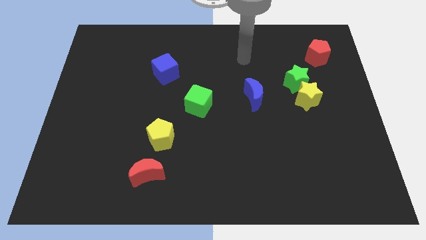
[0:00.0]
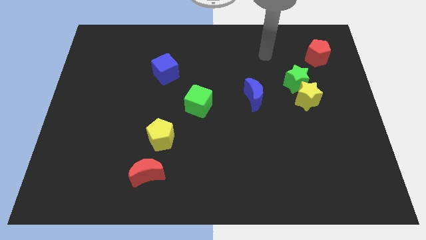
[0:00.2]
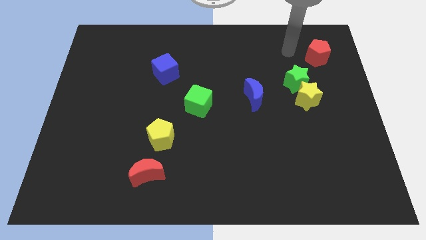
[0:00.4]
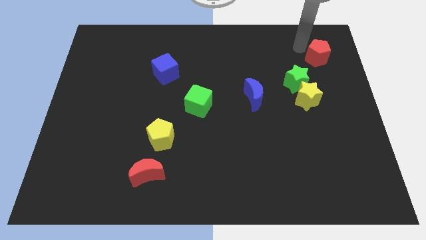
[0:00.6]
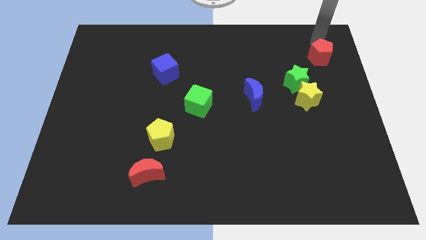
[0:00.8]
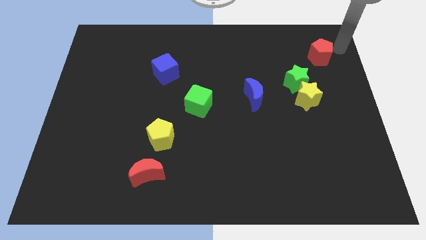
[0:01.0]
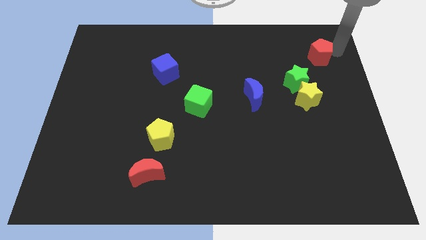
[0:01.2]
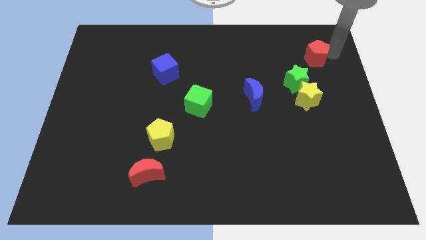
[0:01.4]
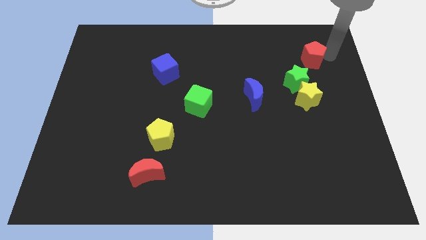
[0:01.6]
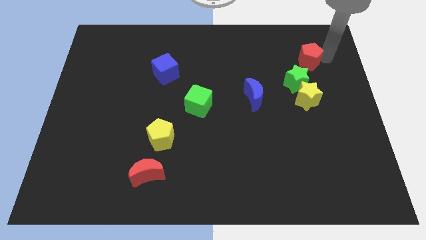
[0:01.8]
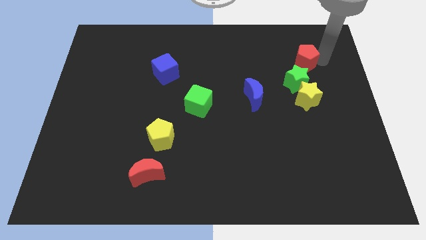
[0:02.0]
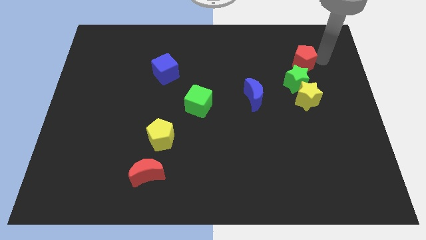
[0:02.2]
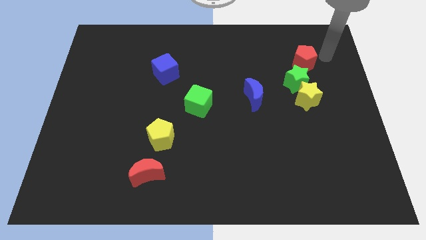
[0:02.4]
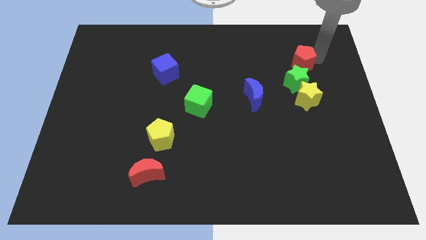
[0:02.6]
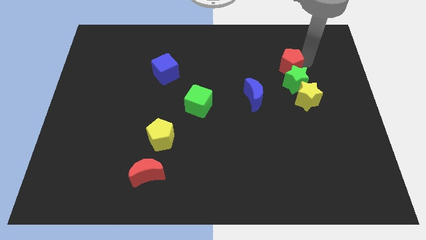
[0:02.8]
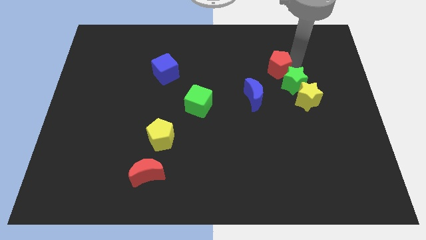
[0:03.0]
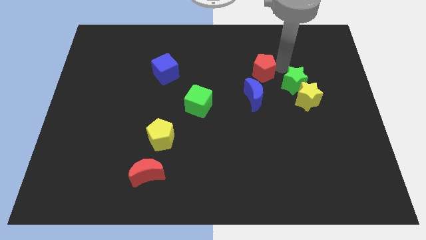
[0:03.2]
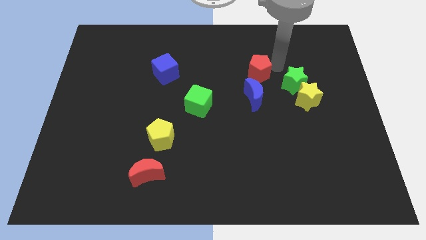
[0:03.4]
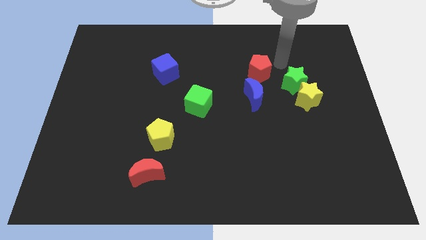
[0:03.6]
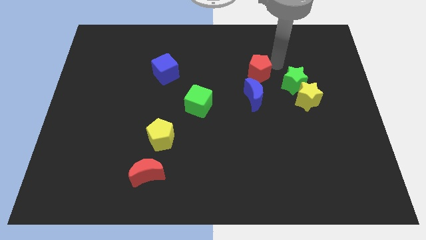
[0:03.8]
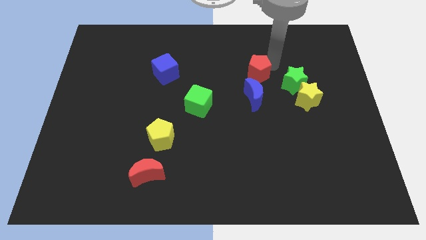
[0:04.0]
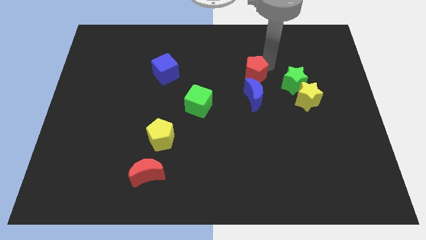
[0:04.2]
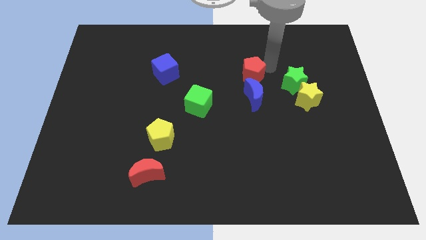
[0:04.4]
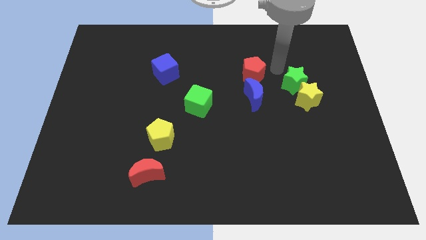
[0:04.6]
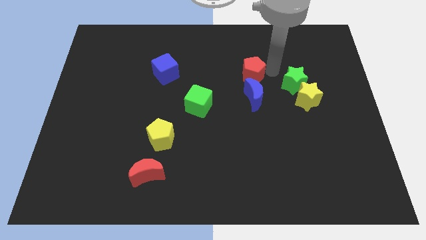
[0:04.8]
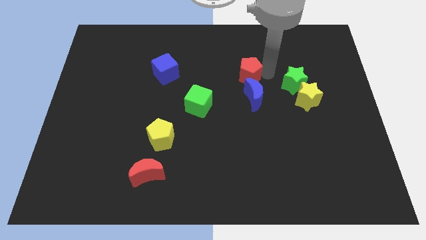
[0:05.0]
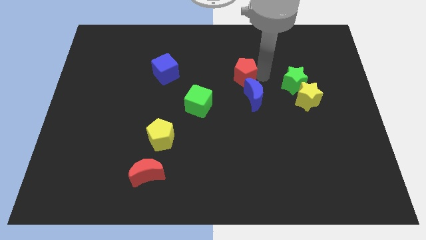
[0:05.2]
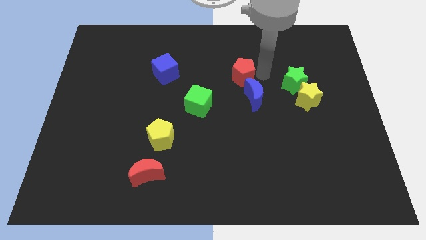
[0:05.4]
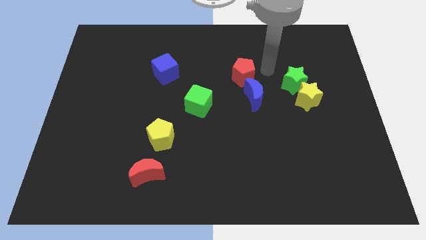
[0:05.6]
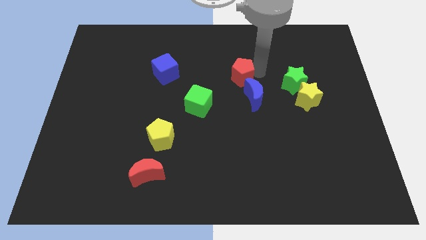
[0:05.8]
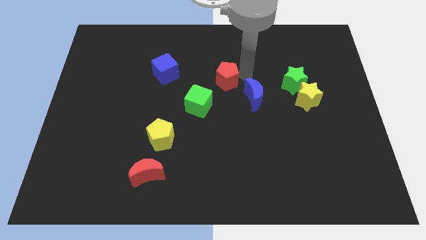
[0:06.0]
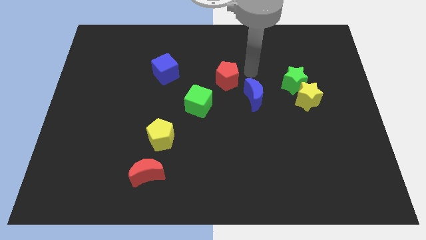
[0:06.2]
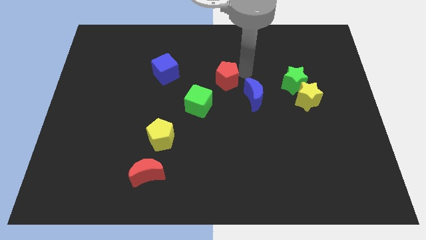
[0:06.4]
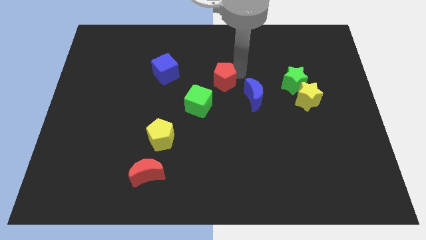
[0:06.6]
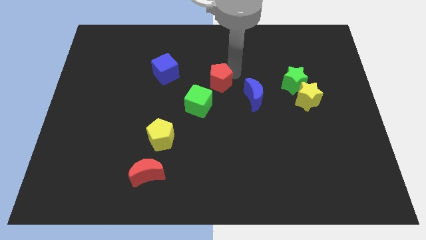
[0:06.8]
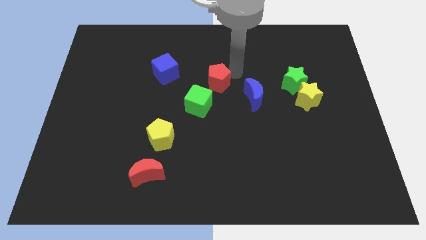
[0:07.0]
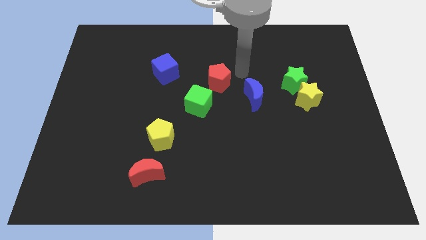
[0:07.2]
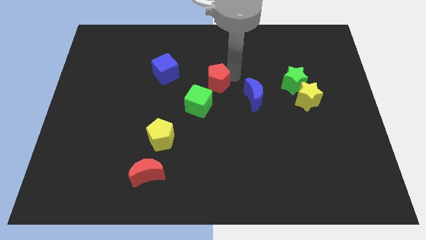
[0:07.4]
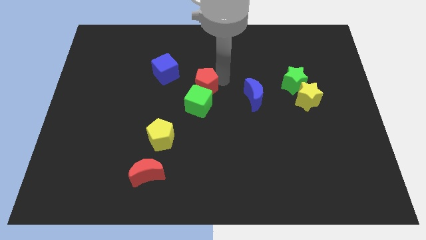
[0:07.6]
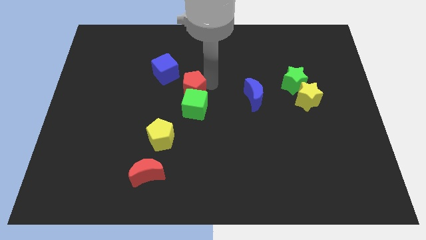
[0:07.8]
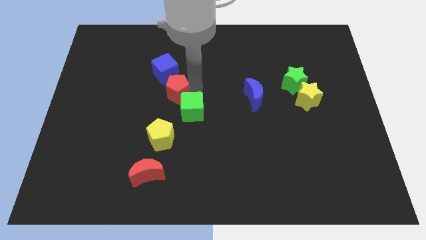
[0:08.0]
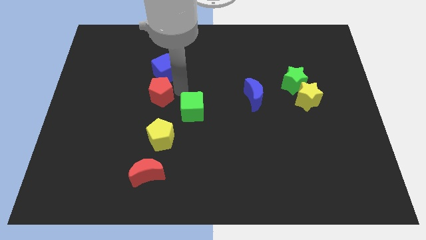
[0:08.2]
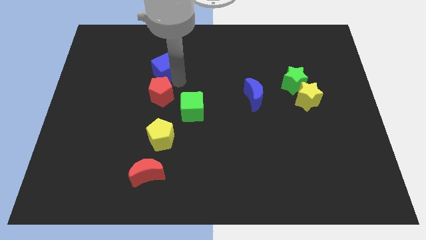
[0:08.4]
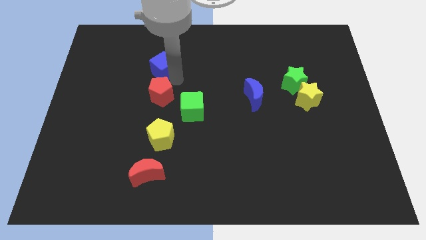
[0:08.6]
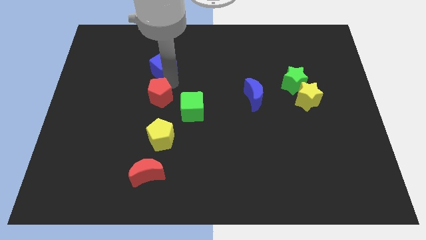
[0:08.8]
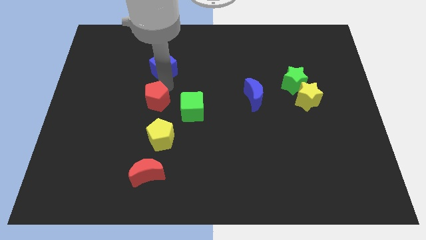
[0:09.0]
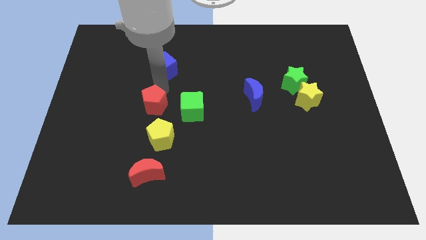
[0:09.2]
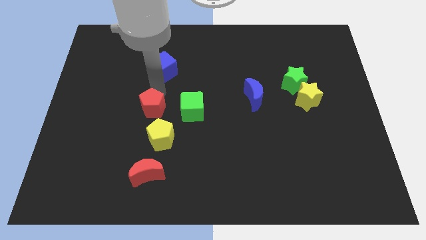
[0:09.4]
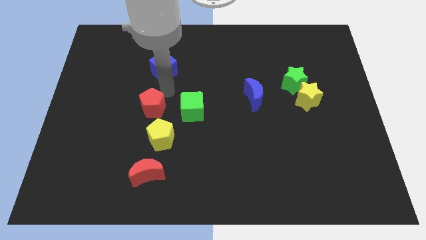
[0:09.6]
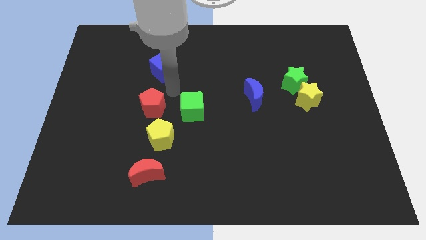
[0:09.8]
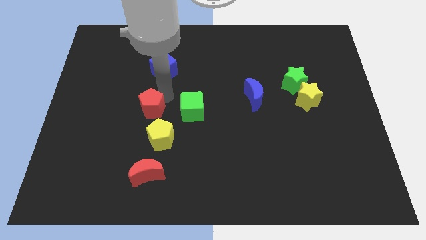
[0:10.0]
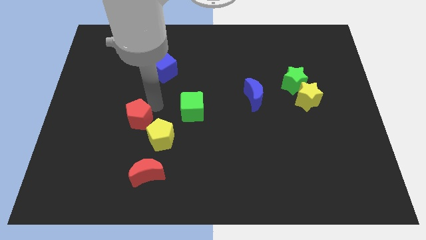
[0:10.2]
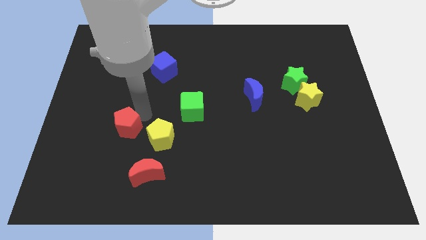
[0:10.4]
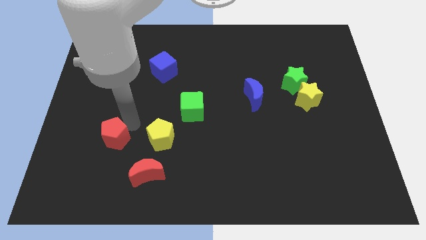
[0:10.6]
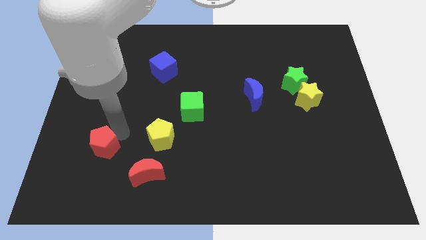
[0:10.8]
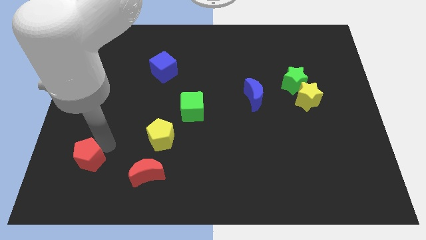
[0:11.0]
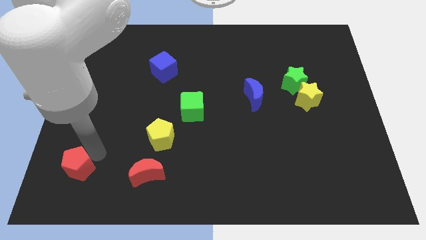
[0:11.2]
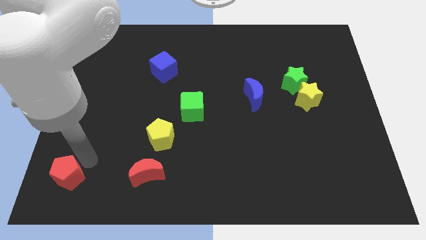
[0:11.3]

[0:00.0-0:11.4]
push the red pentagon to the bottom left
